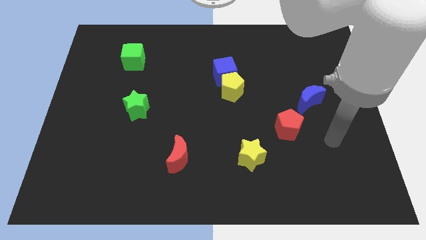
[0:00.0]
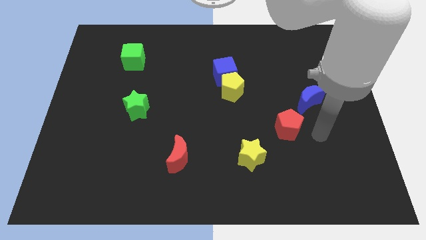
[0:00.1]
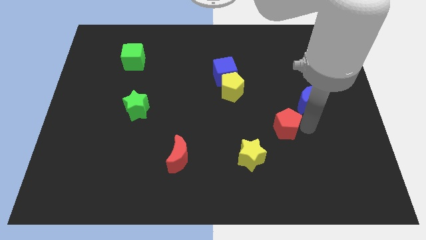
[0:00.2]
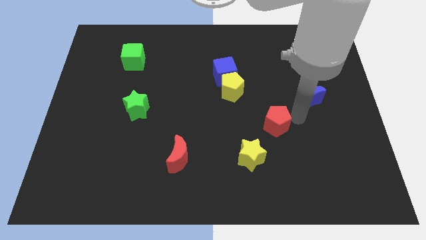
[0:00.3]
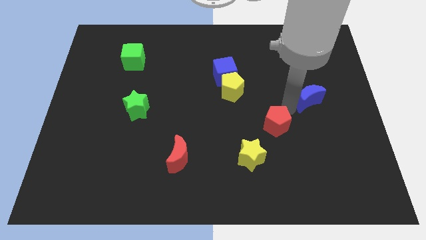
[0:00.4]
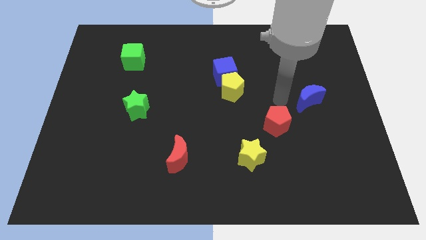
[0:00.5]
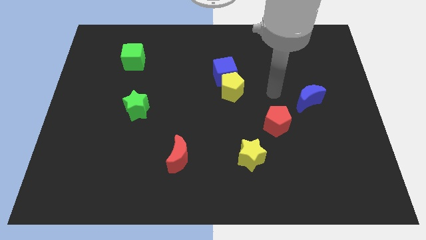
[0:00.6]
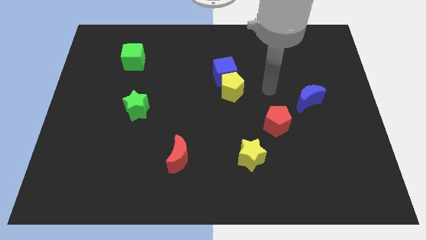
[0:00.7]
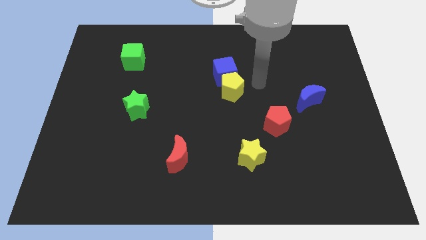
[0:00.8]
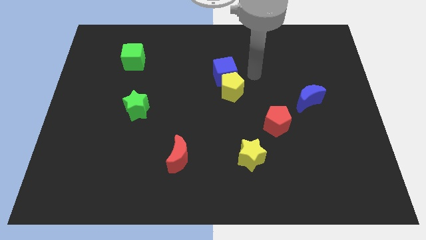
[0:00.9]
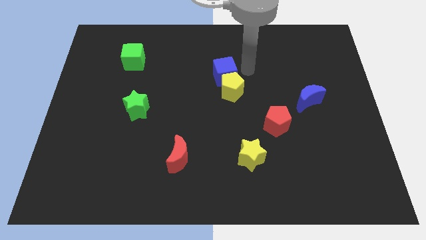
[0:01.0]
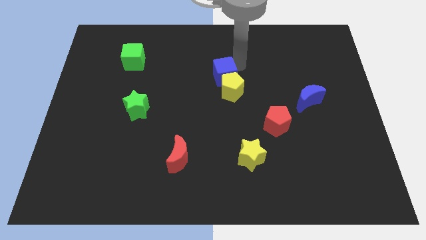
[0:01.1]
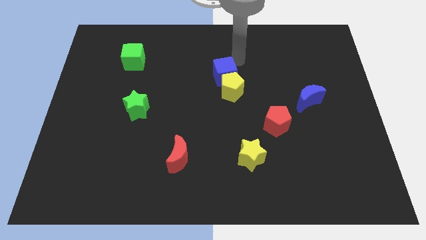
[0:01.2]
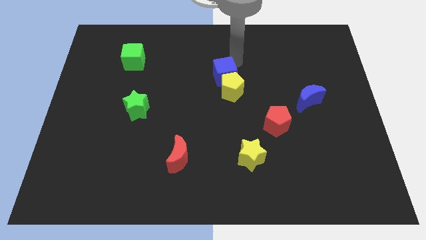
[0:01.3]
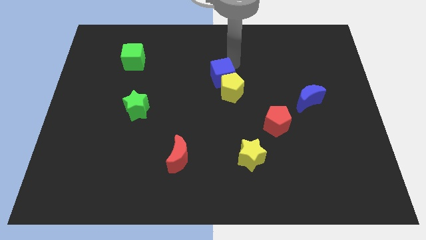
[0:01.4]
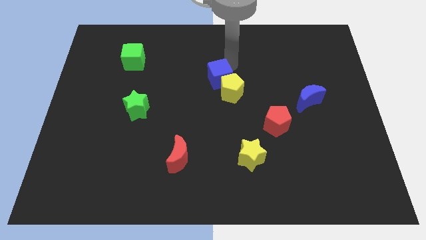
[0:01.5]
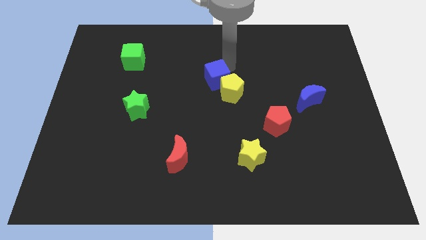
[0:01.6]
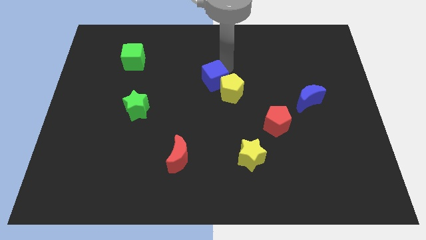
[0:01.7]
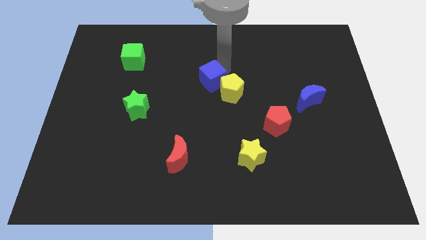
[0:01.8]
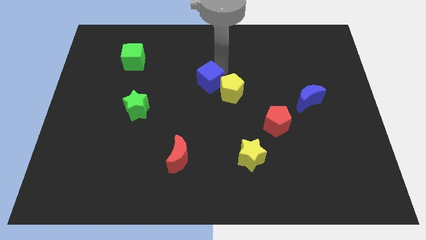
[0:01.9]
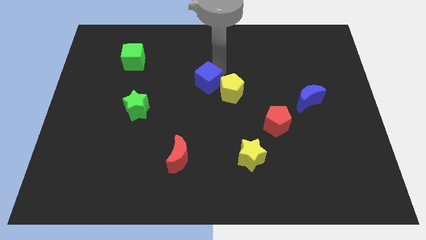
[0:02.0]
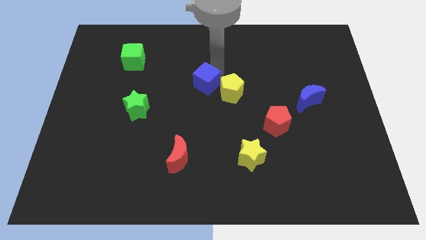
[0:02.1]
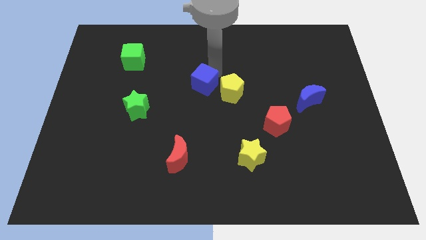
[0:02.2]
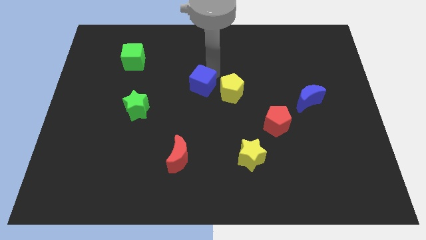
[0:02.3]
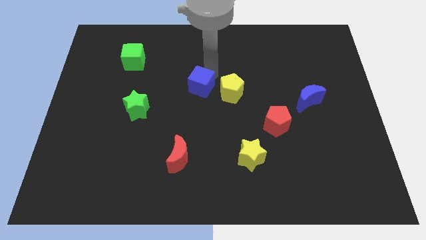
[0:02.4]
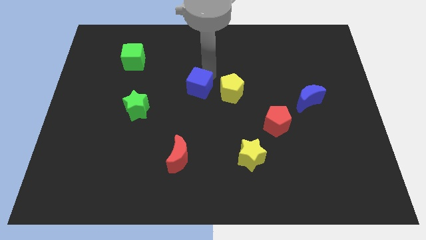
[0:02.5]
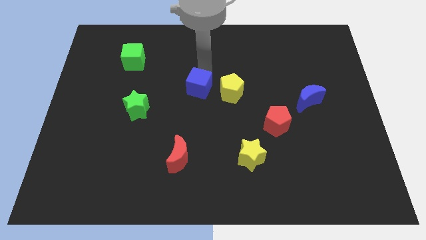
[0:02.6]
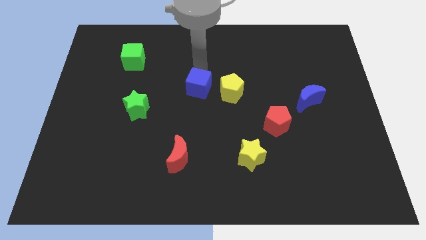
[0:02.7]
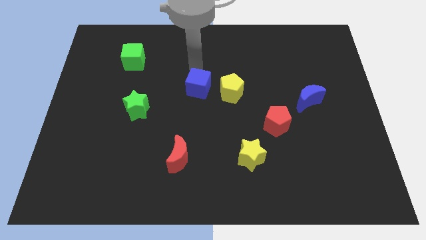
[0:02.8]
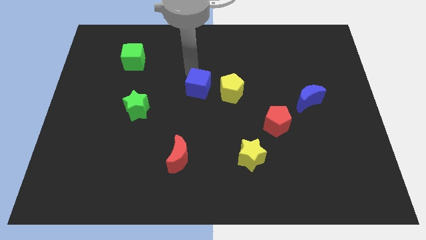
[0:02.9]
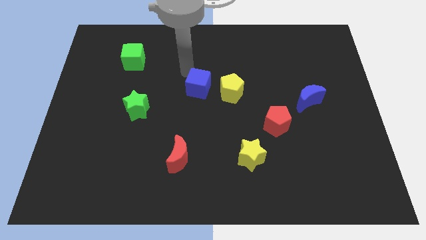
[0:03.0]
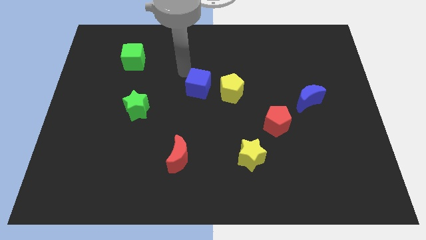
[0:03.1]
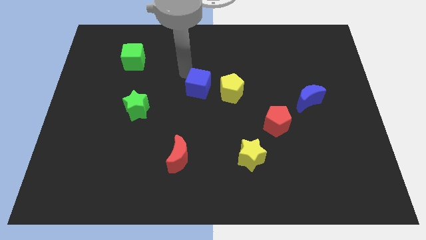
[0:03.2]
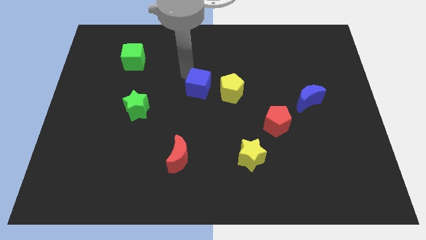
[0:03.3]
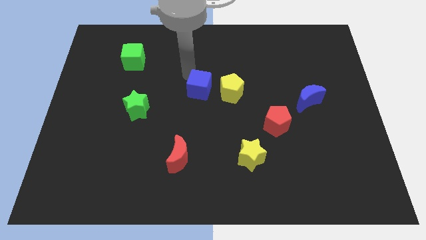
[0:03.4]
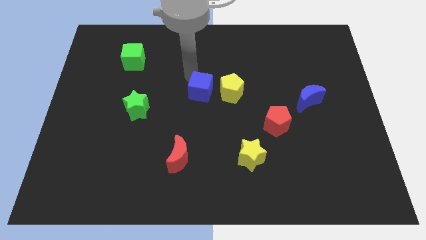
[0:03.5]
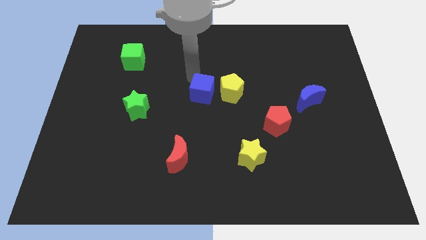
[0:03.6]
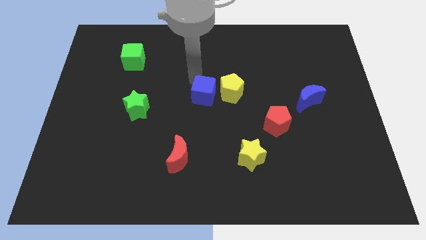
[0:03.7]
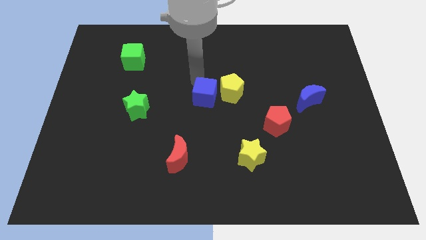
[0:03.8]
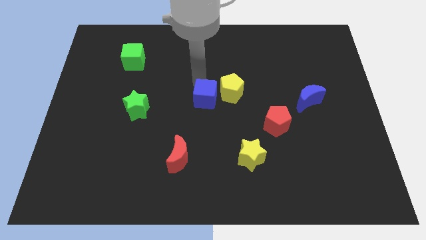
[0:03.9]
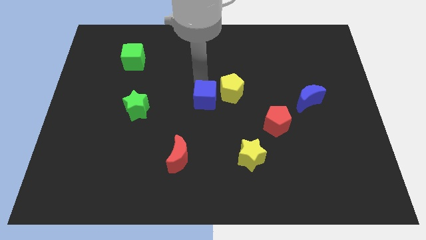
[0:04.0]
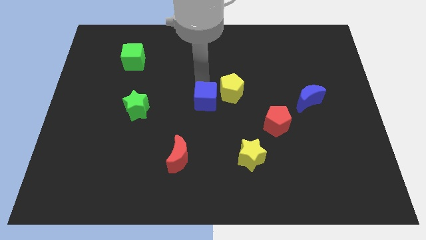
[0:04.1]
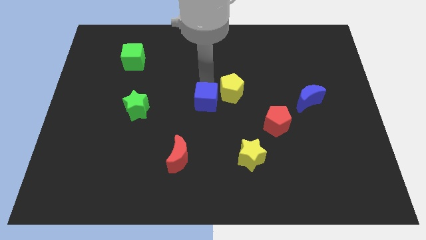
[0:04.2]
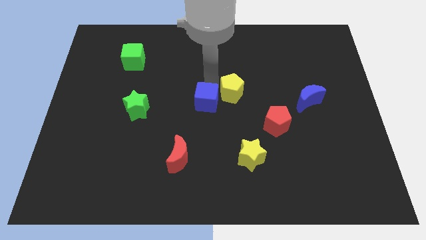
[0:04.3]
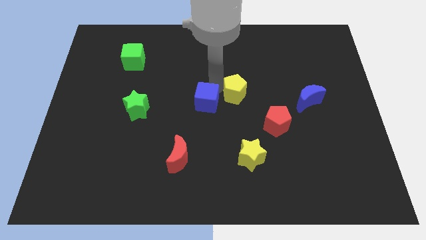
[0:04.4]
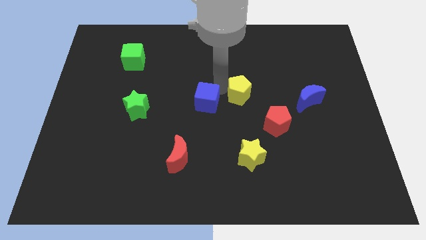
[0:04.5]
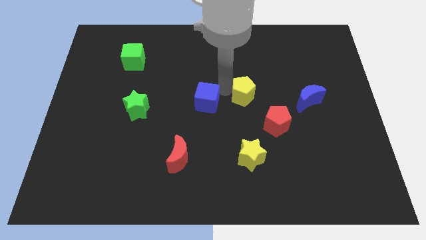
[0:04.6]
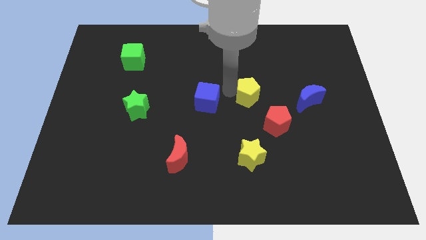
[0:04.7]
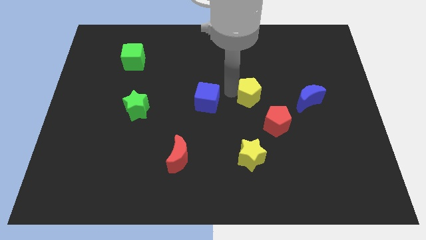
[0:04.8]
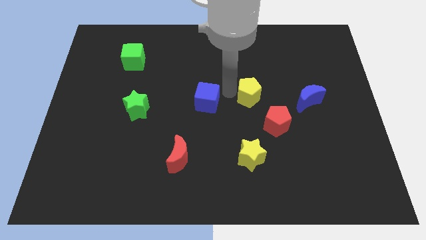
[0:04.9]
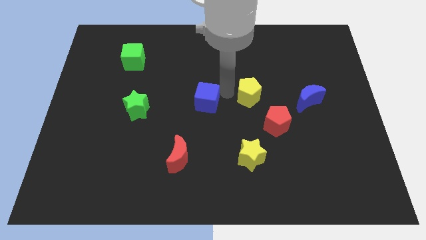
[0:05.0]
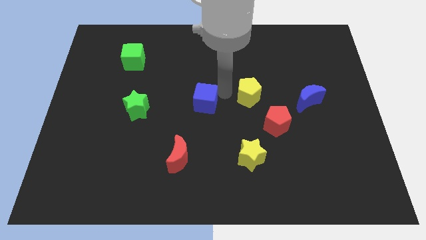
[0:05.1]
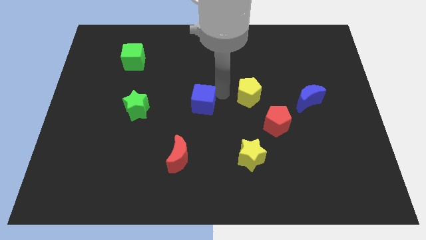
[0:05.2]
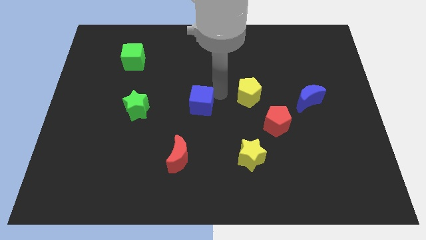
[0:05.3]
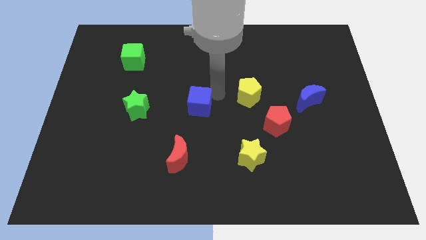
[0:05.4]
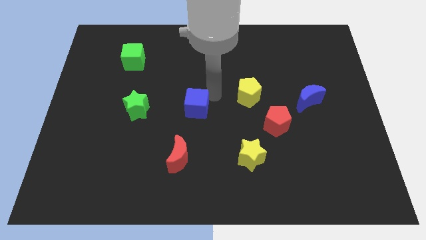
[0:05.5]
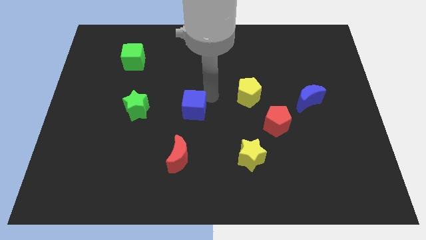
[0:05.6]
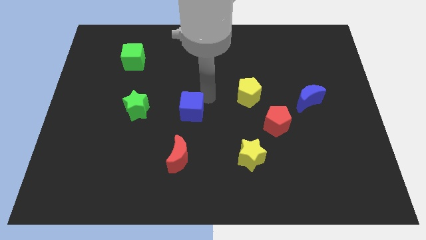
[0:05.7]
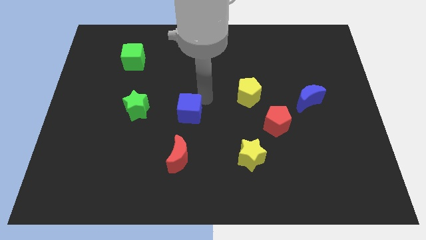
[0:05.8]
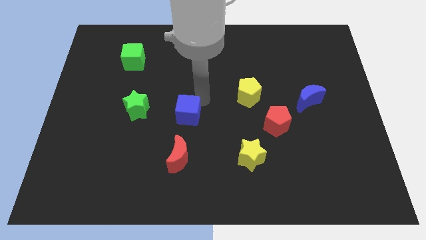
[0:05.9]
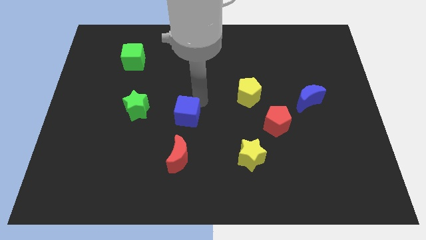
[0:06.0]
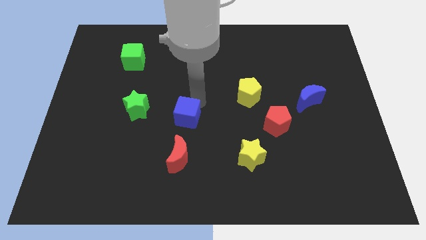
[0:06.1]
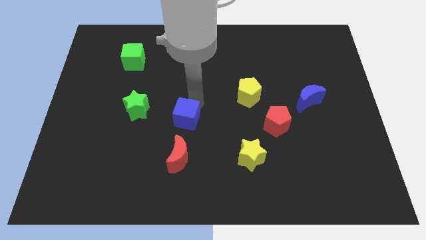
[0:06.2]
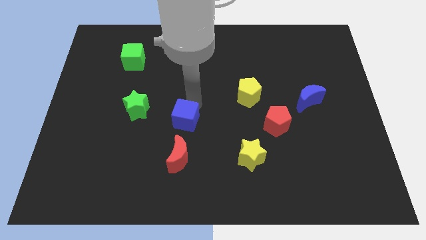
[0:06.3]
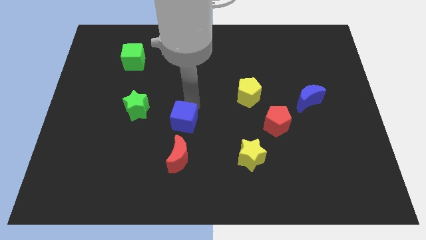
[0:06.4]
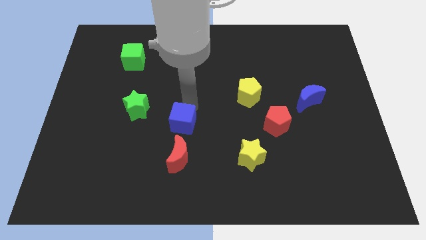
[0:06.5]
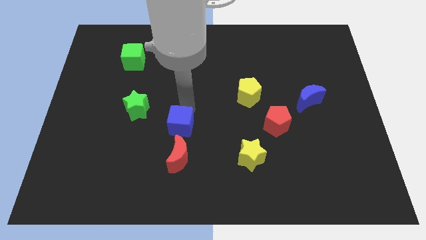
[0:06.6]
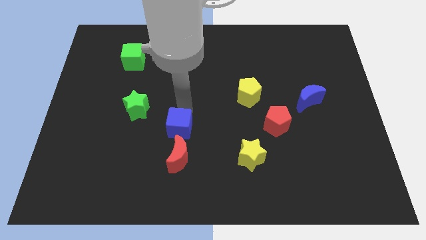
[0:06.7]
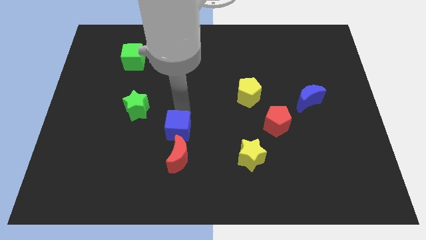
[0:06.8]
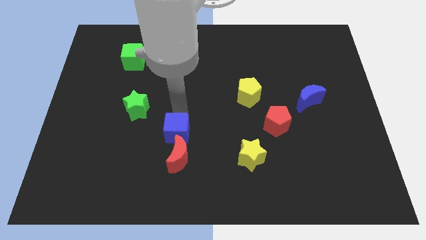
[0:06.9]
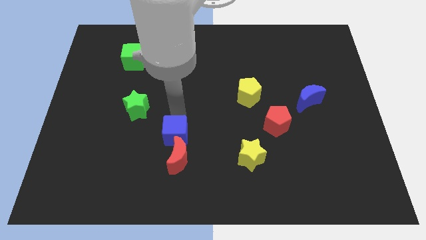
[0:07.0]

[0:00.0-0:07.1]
move the blue cube downwards and then to the left

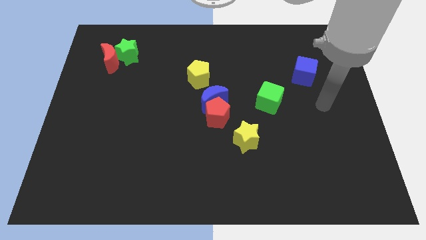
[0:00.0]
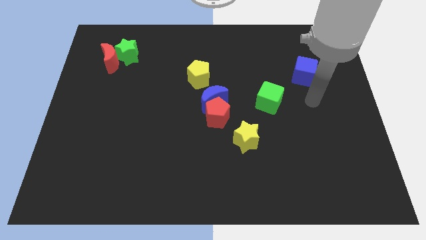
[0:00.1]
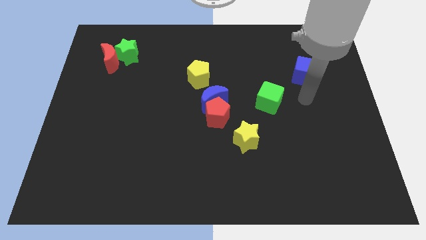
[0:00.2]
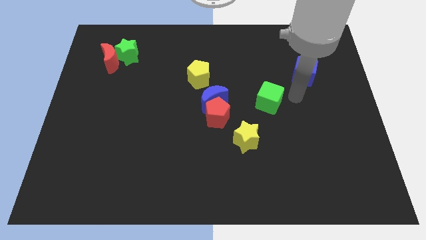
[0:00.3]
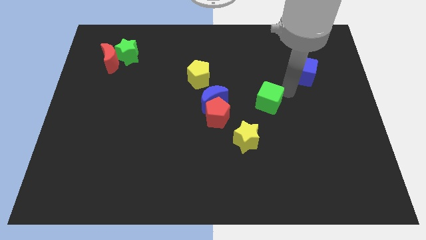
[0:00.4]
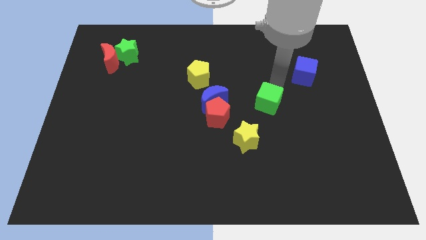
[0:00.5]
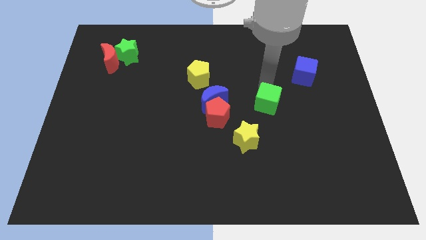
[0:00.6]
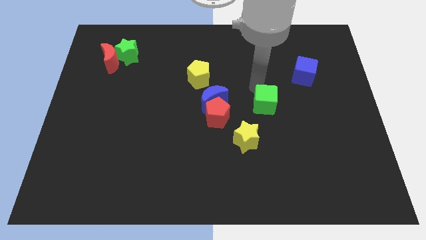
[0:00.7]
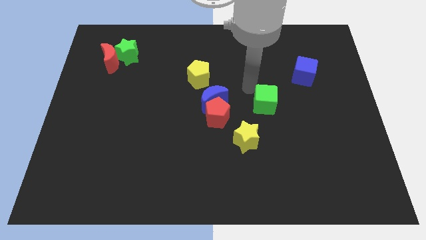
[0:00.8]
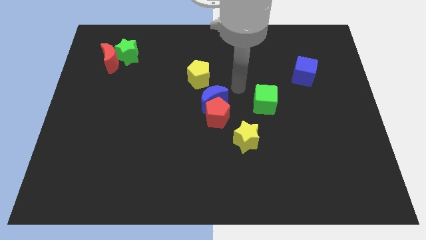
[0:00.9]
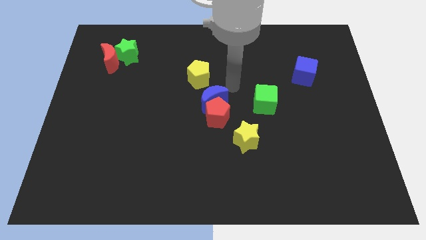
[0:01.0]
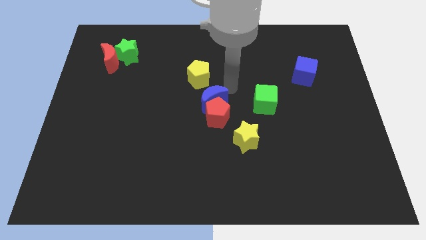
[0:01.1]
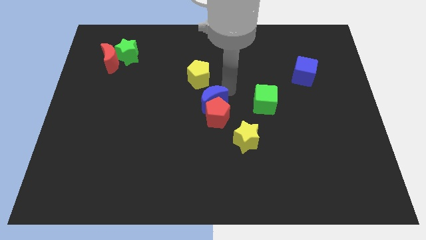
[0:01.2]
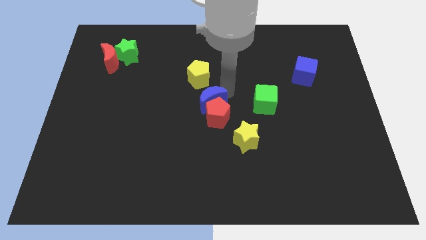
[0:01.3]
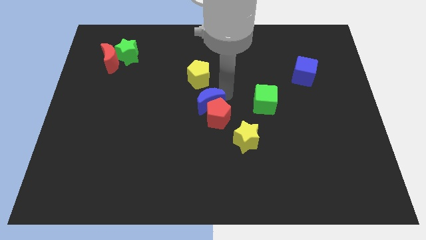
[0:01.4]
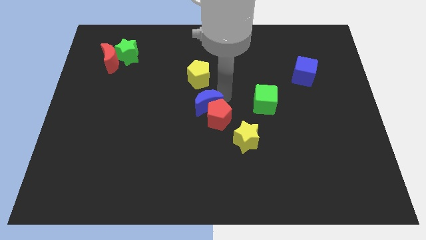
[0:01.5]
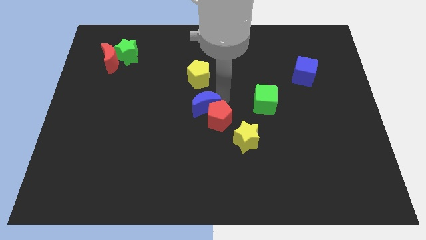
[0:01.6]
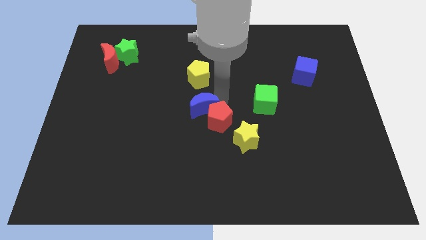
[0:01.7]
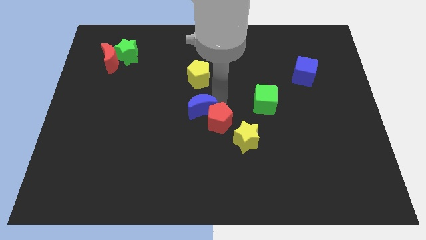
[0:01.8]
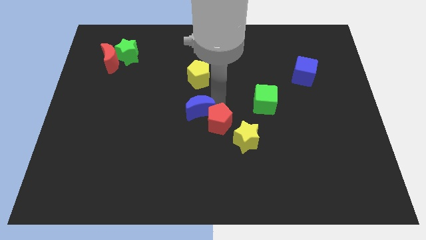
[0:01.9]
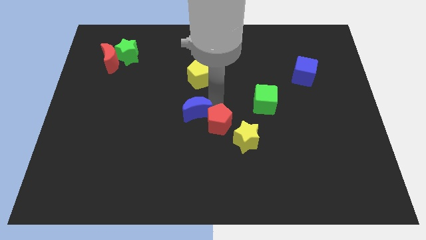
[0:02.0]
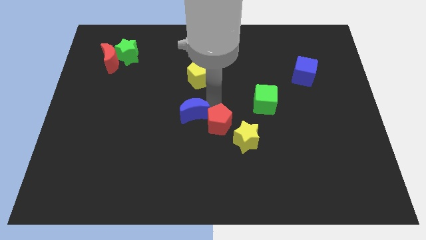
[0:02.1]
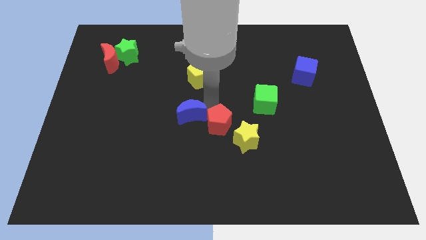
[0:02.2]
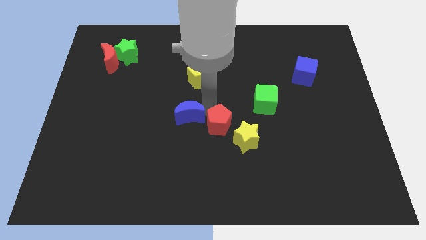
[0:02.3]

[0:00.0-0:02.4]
move the blue moon down and then left a little bit
